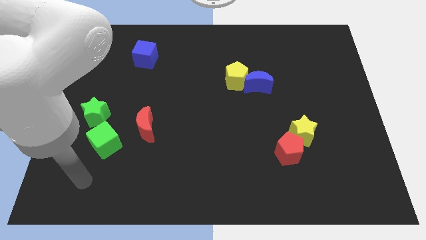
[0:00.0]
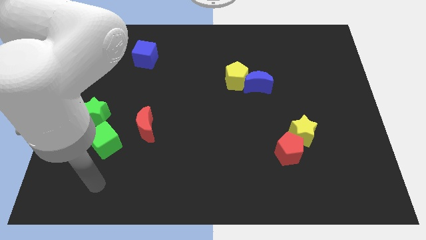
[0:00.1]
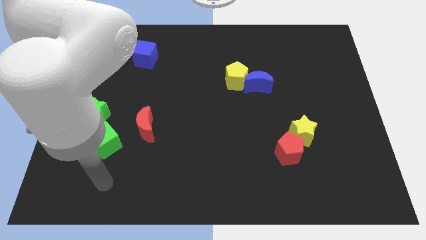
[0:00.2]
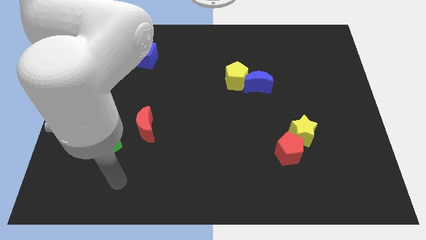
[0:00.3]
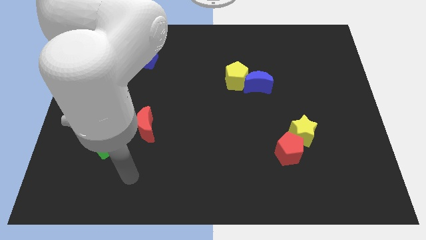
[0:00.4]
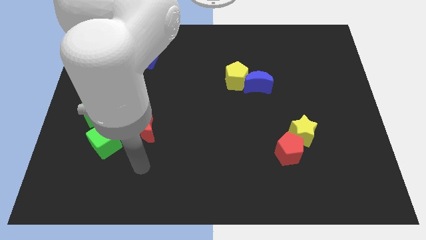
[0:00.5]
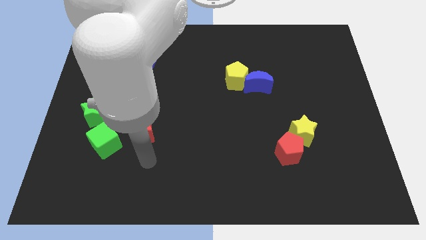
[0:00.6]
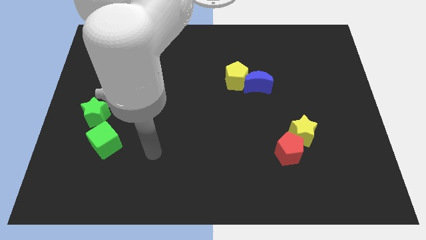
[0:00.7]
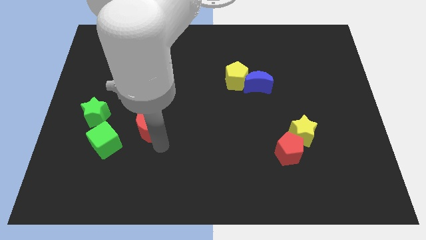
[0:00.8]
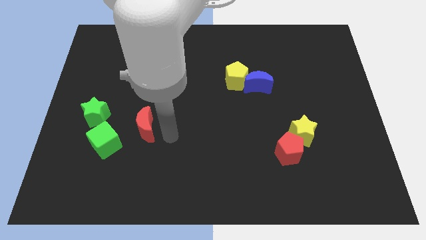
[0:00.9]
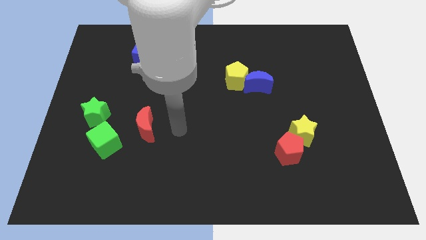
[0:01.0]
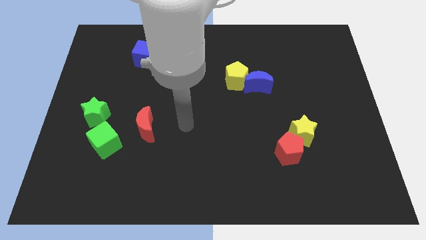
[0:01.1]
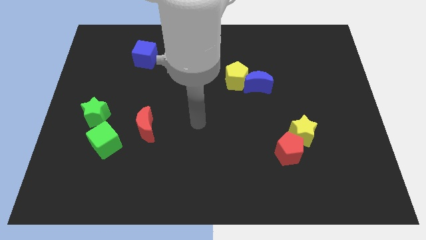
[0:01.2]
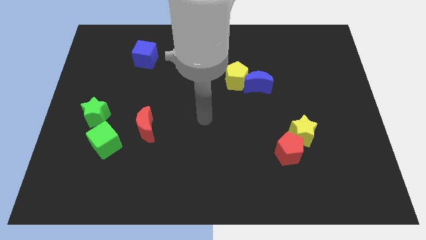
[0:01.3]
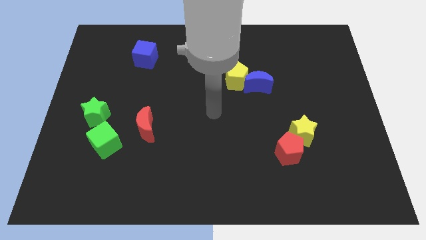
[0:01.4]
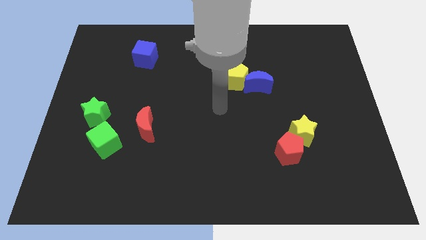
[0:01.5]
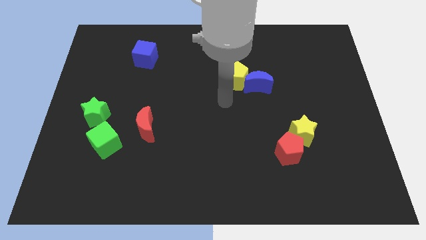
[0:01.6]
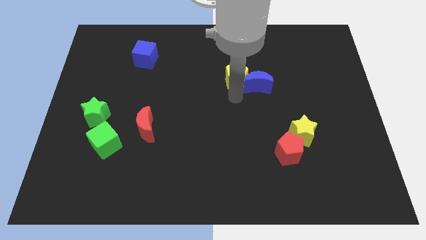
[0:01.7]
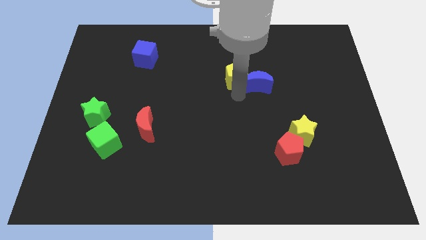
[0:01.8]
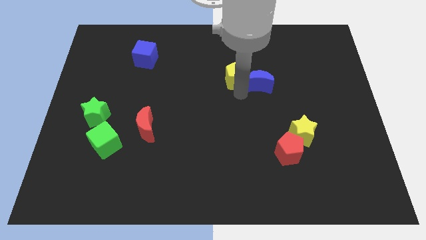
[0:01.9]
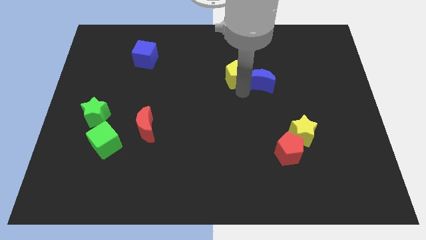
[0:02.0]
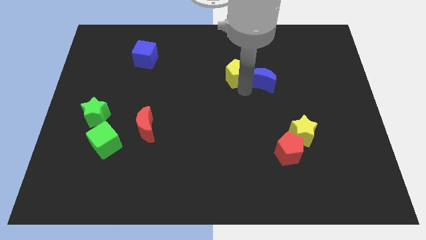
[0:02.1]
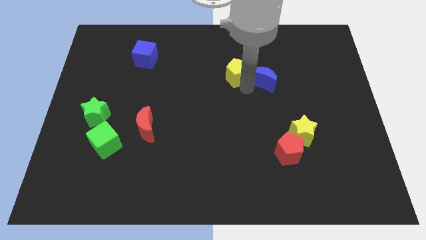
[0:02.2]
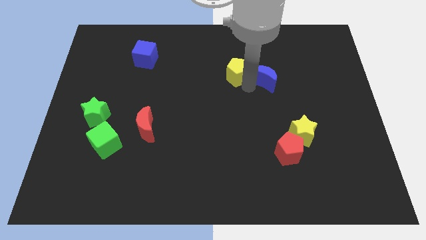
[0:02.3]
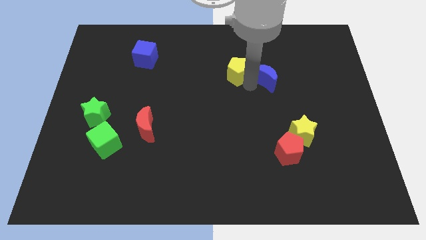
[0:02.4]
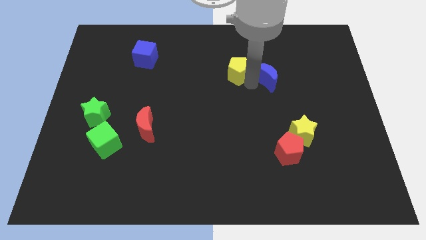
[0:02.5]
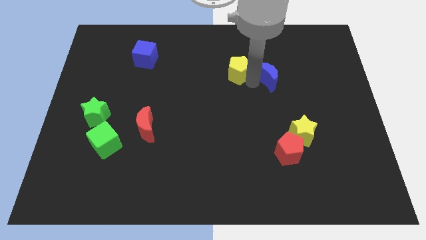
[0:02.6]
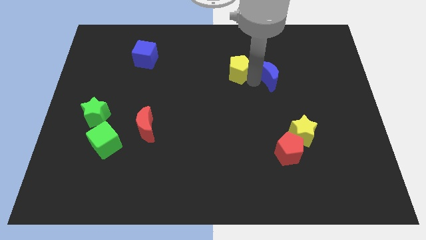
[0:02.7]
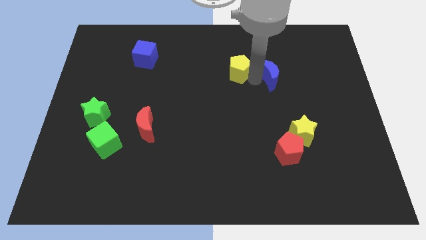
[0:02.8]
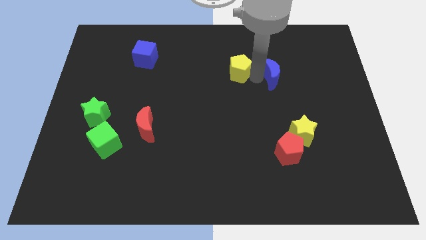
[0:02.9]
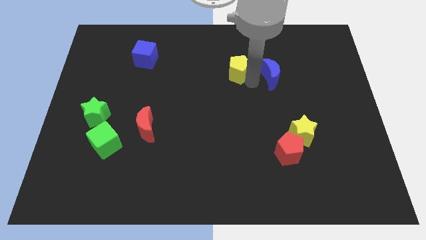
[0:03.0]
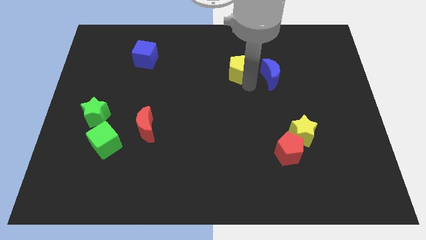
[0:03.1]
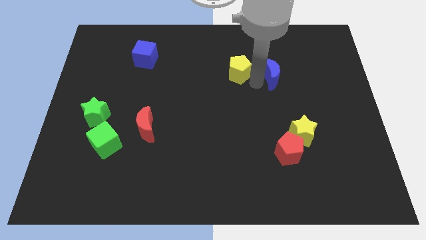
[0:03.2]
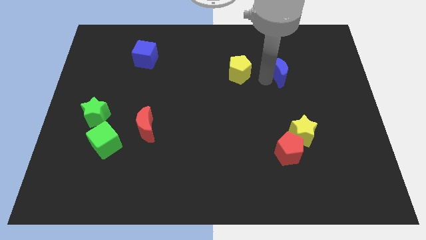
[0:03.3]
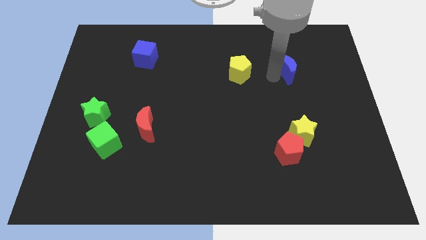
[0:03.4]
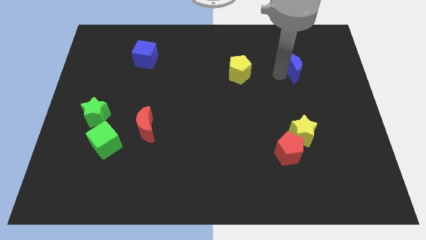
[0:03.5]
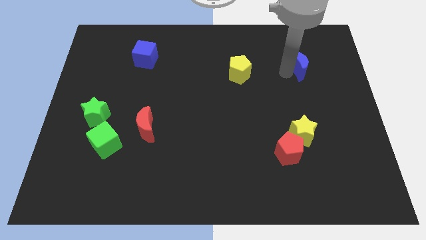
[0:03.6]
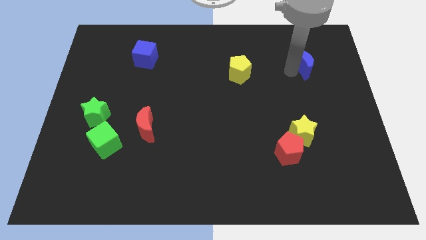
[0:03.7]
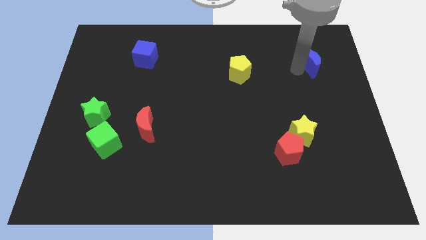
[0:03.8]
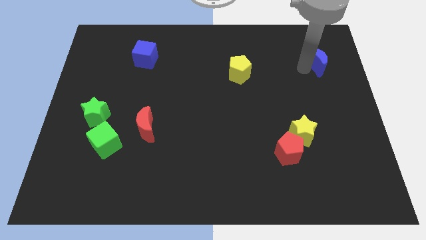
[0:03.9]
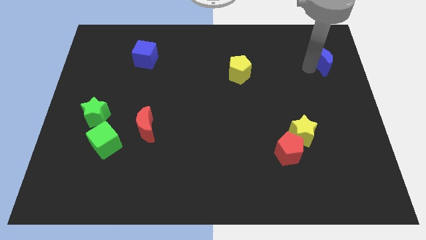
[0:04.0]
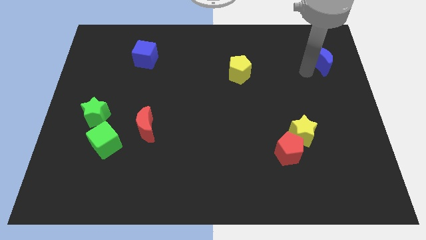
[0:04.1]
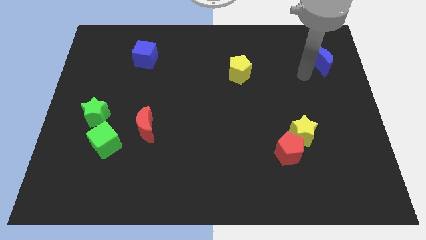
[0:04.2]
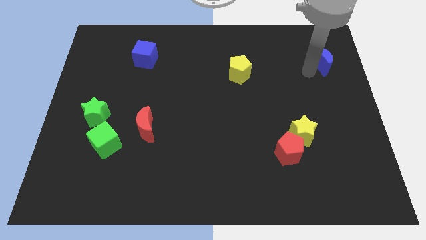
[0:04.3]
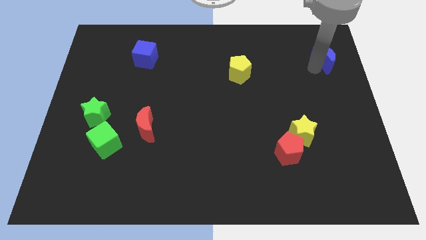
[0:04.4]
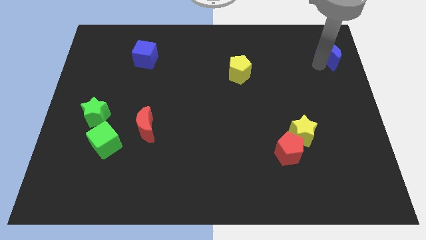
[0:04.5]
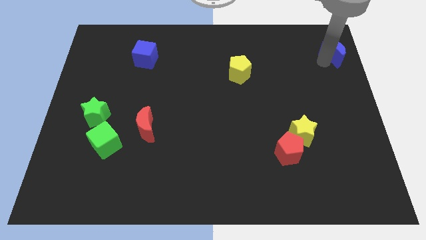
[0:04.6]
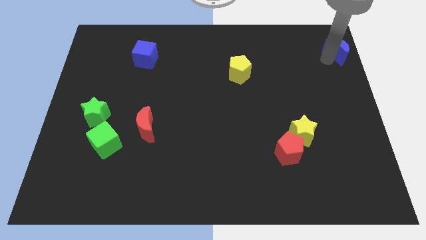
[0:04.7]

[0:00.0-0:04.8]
move the blue moon to the top right of the board

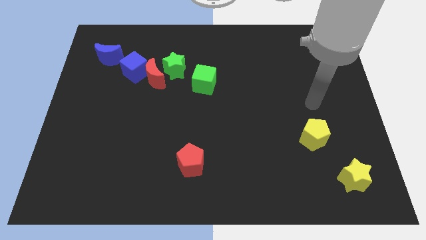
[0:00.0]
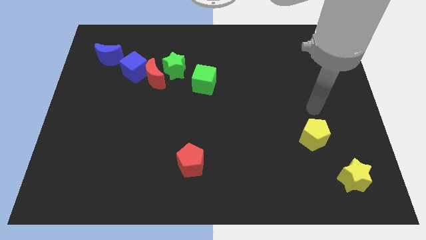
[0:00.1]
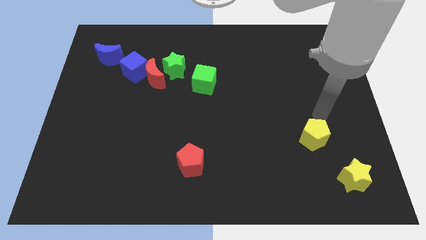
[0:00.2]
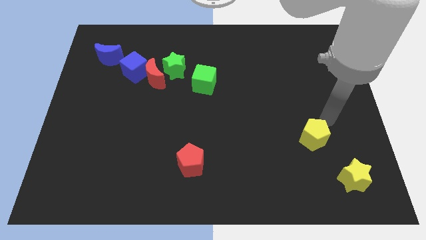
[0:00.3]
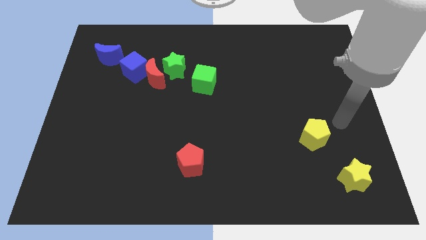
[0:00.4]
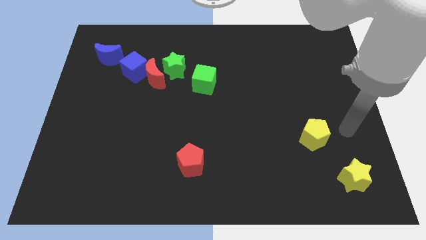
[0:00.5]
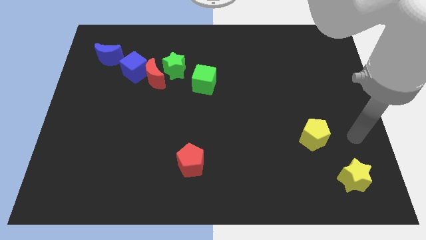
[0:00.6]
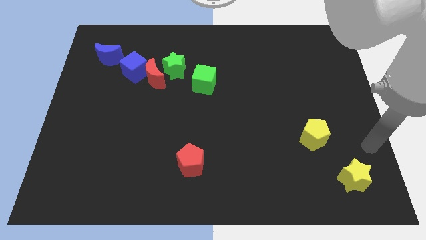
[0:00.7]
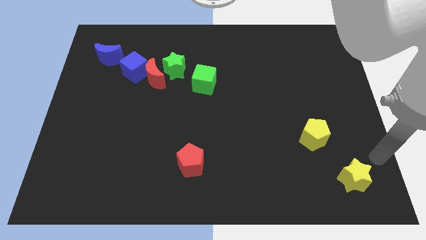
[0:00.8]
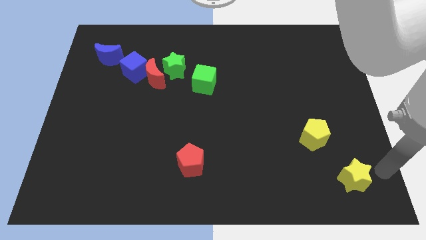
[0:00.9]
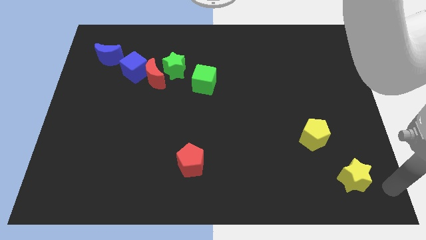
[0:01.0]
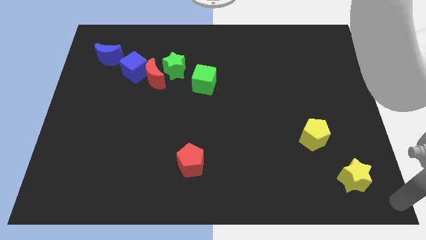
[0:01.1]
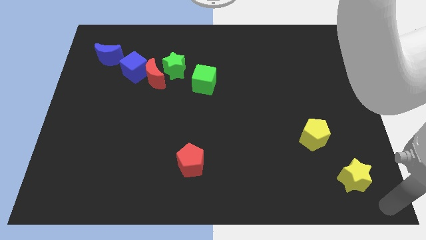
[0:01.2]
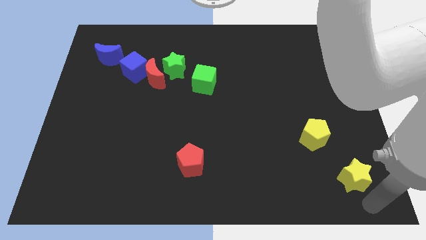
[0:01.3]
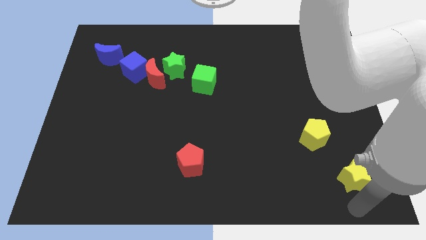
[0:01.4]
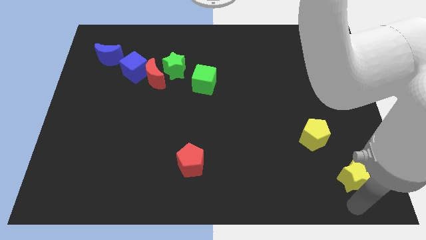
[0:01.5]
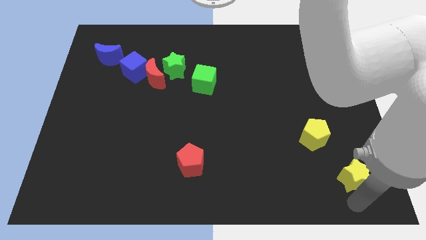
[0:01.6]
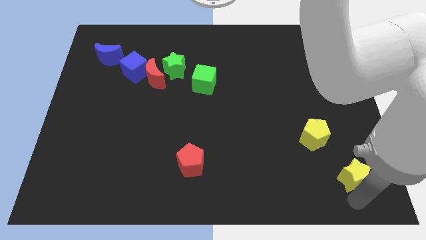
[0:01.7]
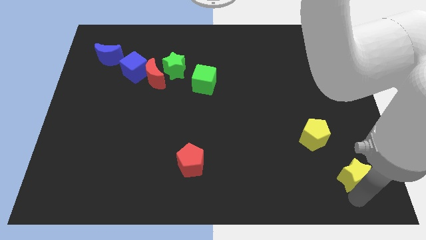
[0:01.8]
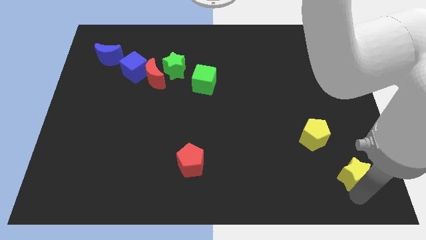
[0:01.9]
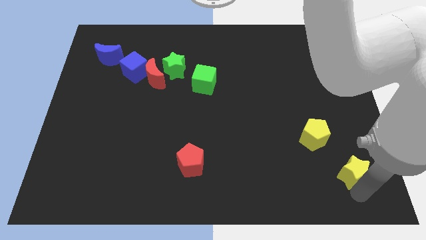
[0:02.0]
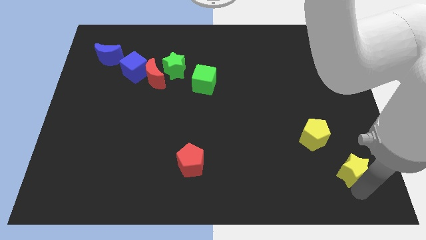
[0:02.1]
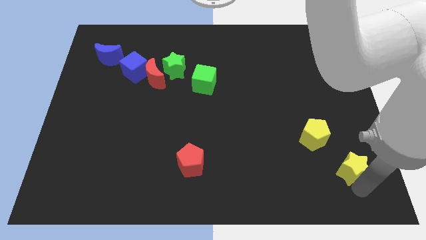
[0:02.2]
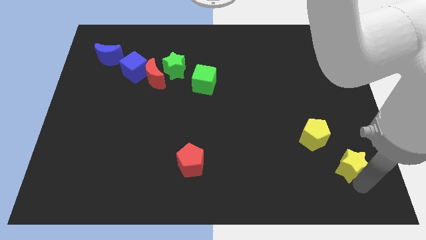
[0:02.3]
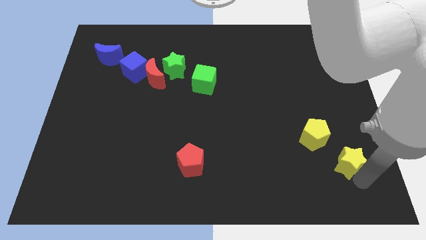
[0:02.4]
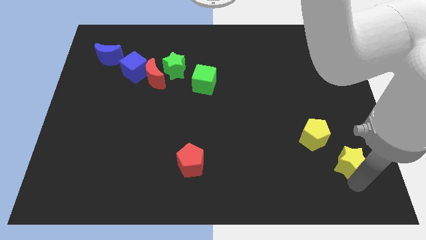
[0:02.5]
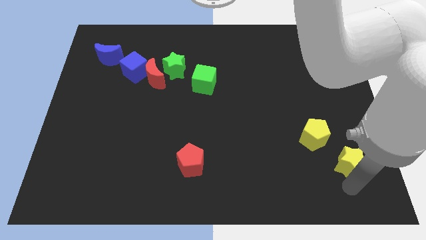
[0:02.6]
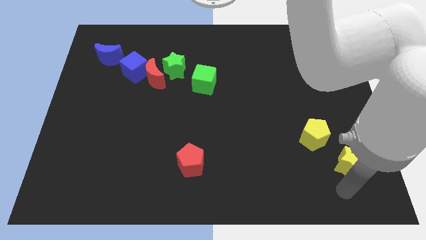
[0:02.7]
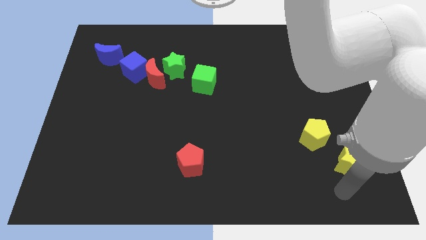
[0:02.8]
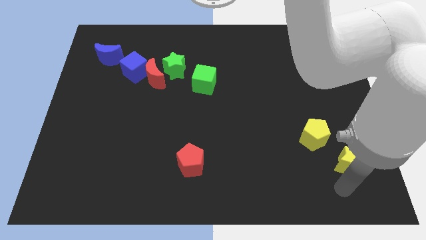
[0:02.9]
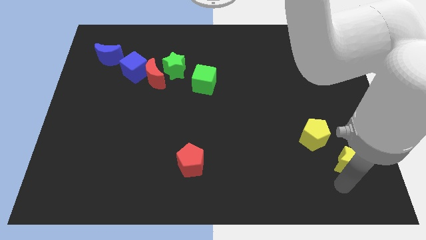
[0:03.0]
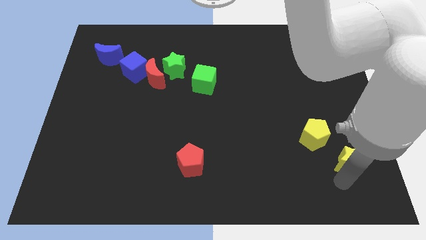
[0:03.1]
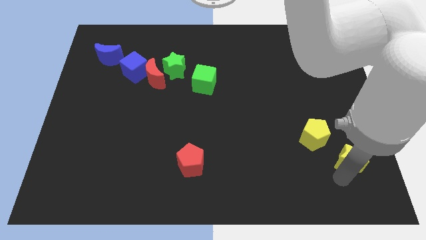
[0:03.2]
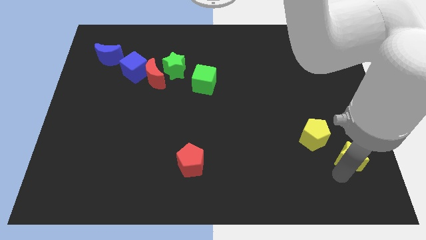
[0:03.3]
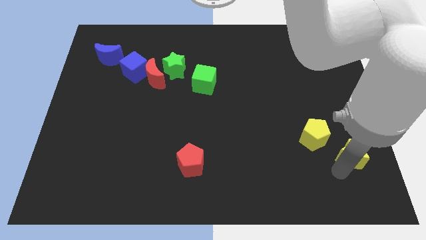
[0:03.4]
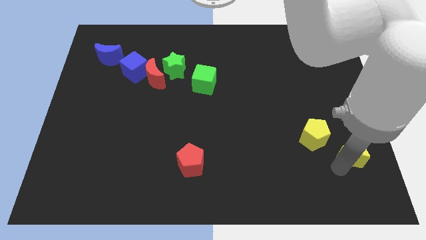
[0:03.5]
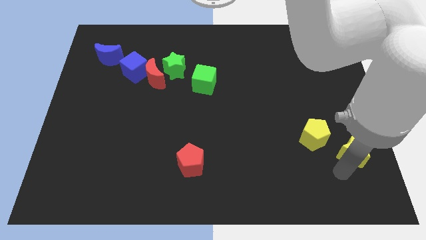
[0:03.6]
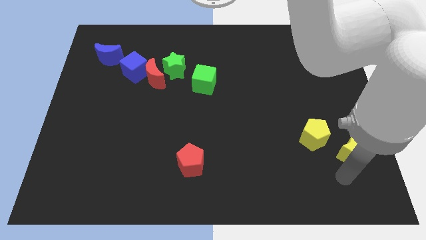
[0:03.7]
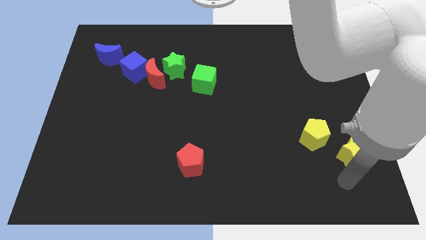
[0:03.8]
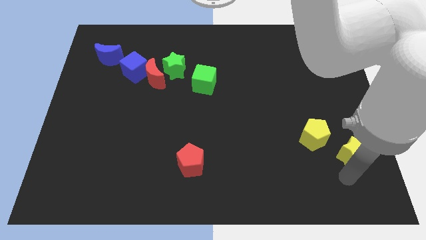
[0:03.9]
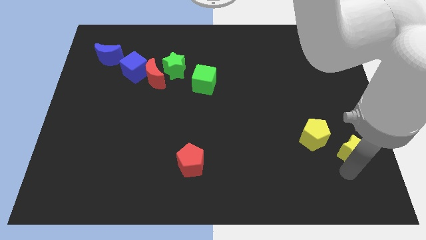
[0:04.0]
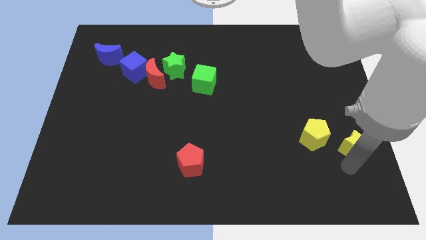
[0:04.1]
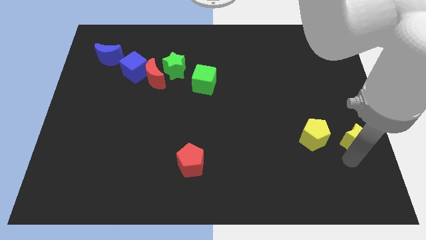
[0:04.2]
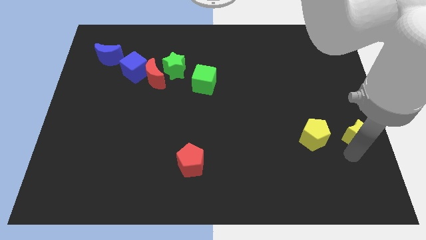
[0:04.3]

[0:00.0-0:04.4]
slide the yellow star to the right side of the board
